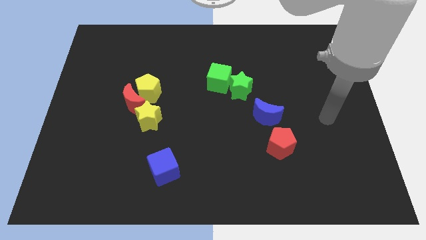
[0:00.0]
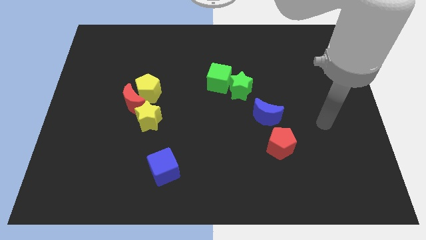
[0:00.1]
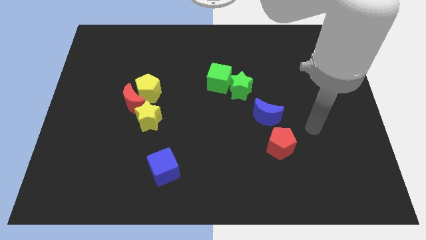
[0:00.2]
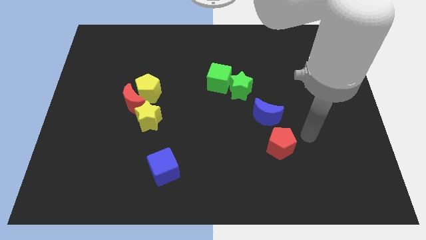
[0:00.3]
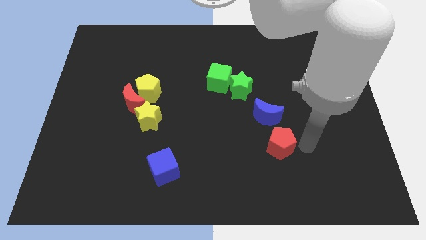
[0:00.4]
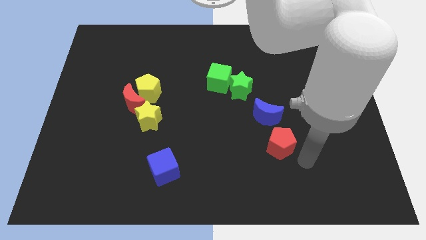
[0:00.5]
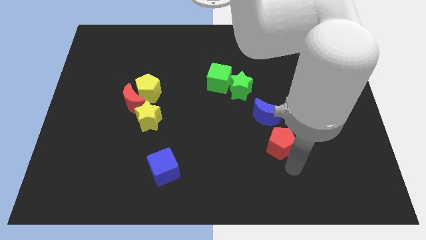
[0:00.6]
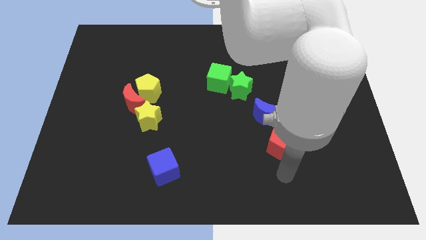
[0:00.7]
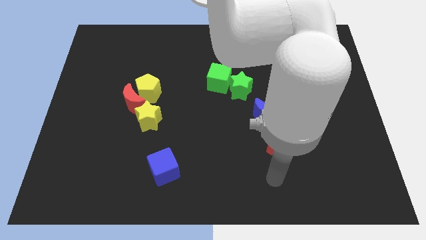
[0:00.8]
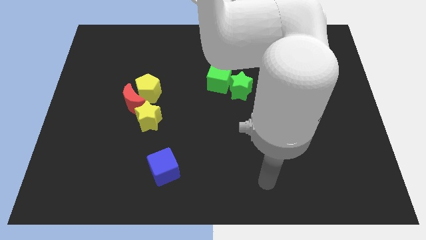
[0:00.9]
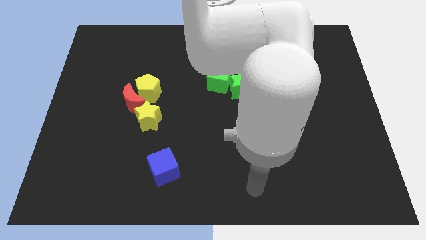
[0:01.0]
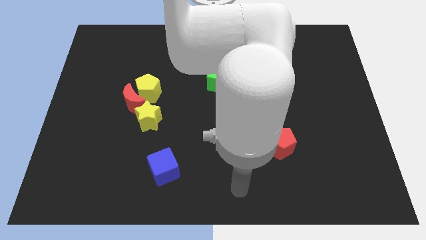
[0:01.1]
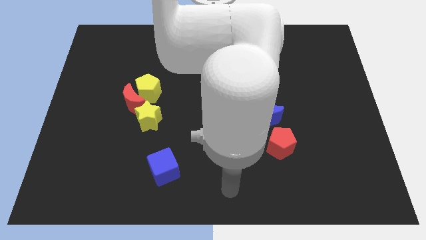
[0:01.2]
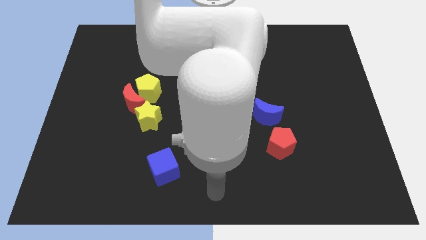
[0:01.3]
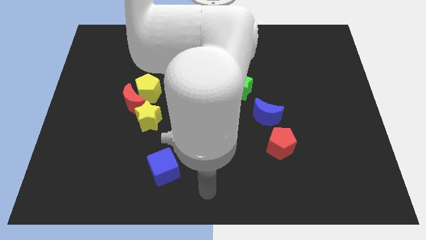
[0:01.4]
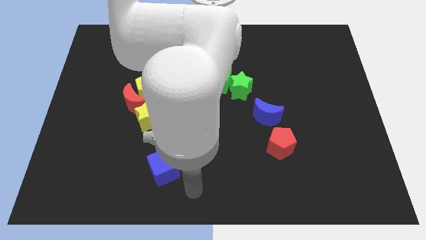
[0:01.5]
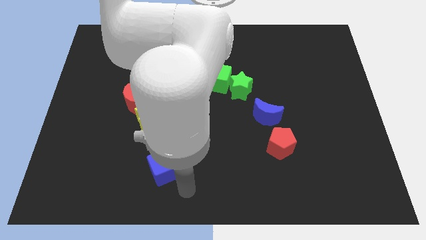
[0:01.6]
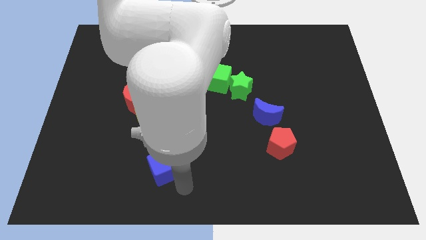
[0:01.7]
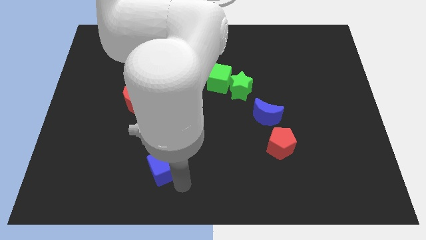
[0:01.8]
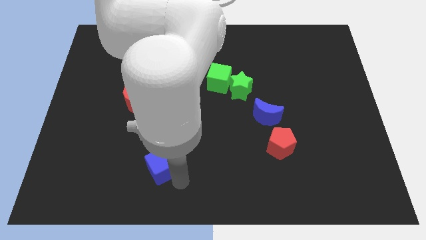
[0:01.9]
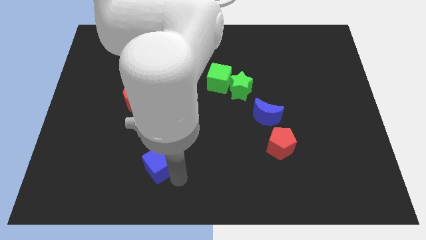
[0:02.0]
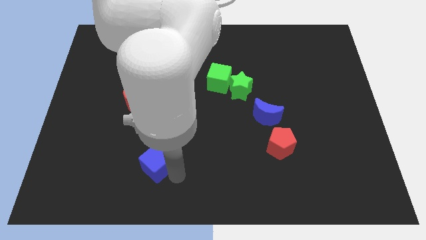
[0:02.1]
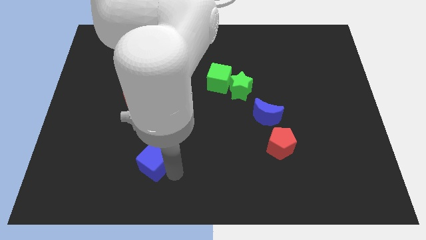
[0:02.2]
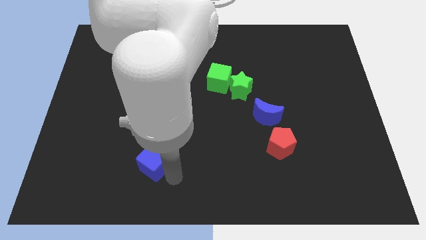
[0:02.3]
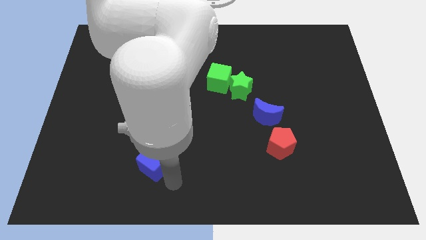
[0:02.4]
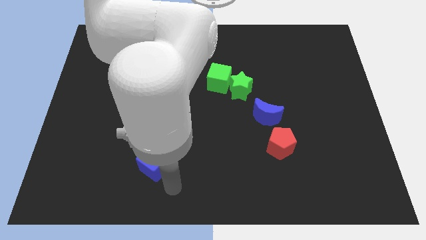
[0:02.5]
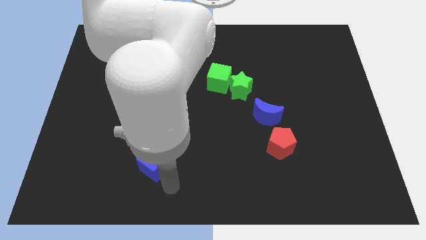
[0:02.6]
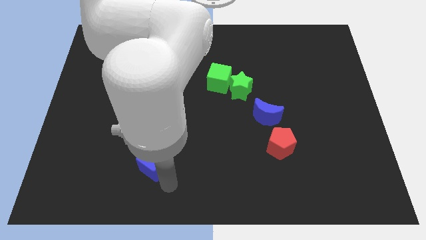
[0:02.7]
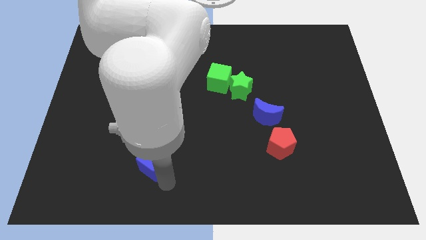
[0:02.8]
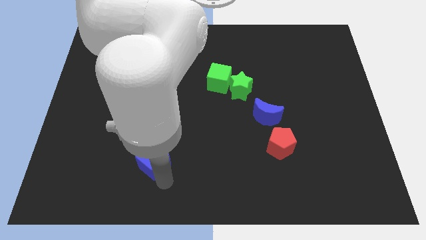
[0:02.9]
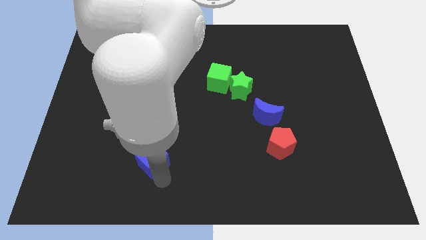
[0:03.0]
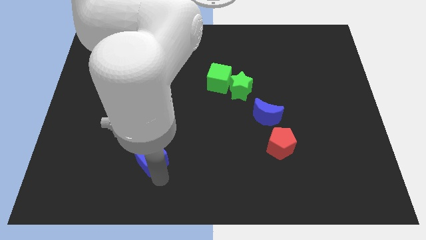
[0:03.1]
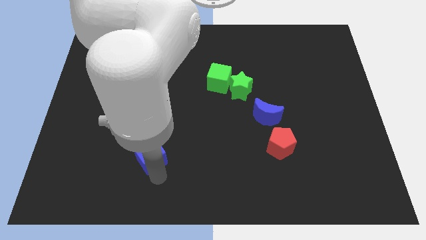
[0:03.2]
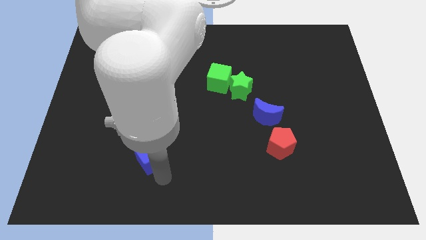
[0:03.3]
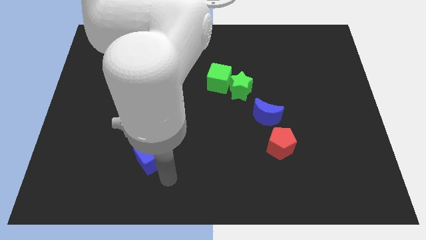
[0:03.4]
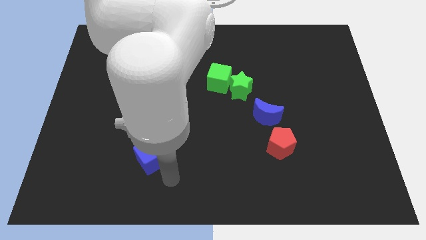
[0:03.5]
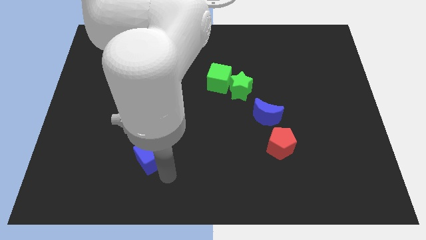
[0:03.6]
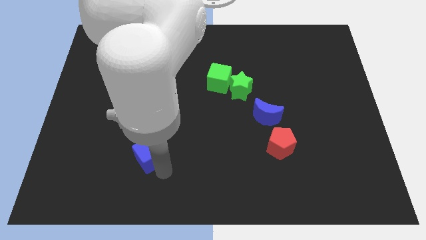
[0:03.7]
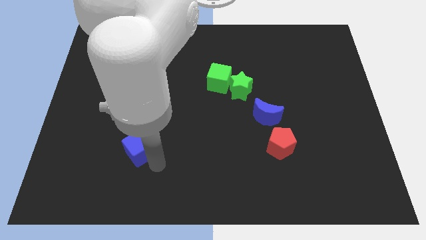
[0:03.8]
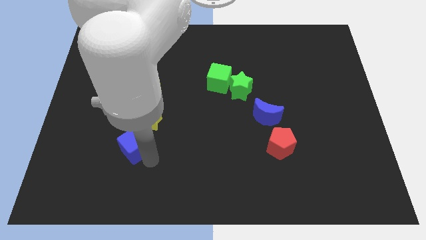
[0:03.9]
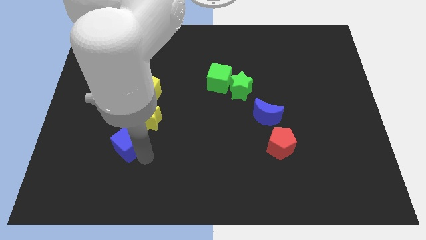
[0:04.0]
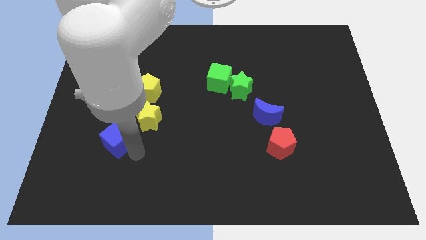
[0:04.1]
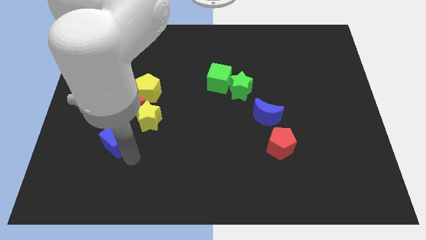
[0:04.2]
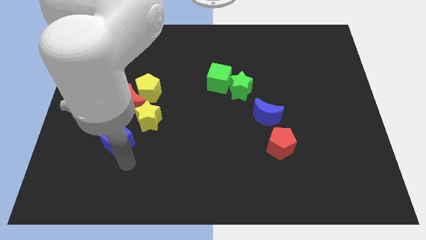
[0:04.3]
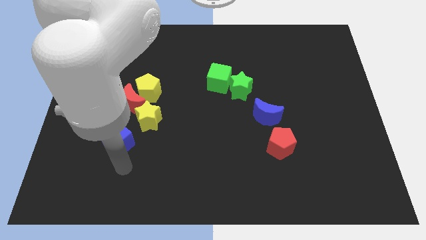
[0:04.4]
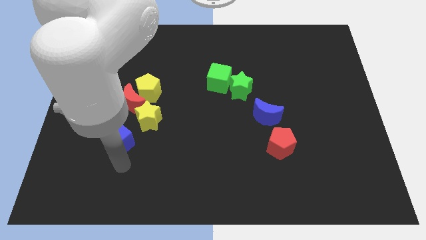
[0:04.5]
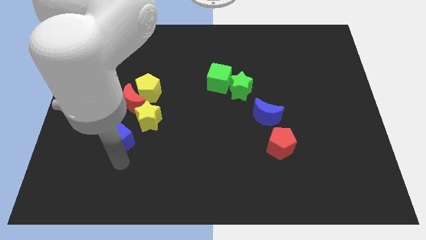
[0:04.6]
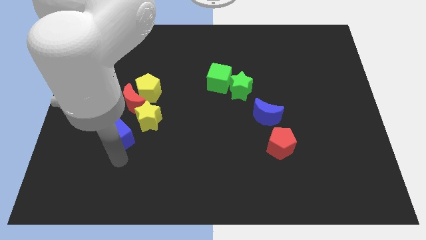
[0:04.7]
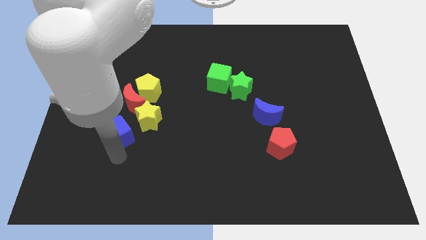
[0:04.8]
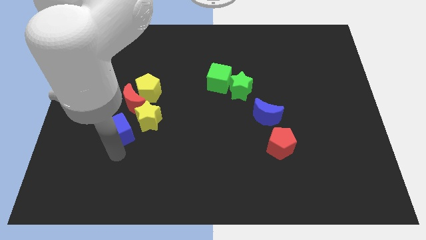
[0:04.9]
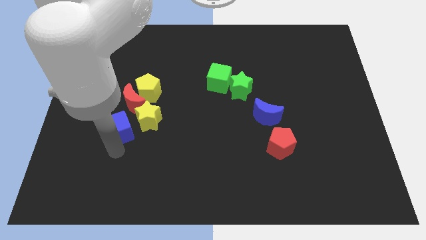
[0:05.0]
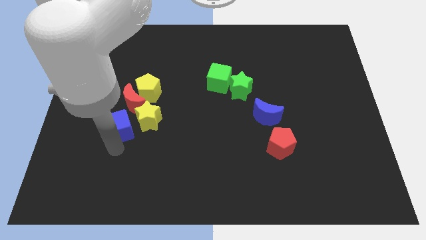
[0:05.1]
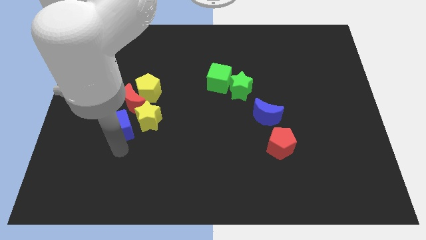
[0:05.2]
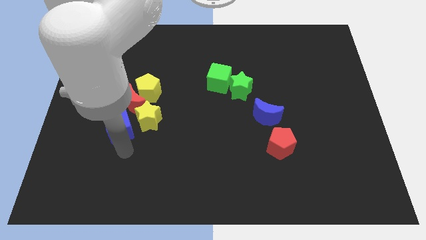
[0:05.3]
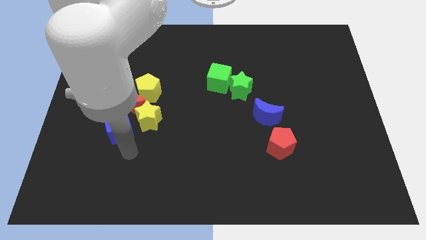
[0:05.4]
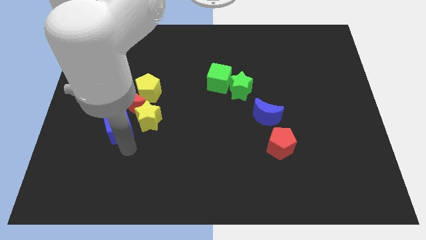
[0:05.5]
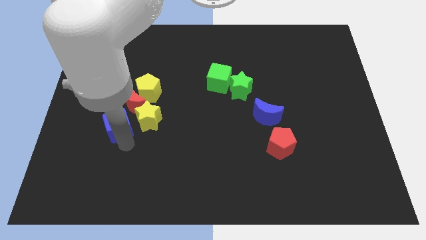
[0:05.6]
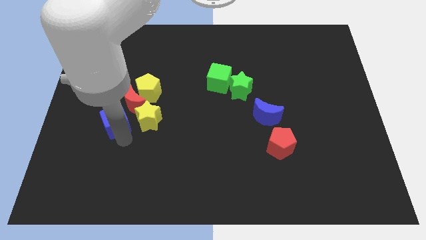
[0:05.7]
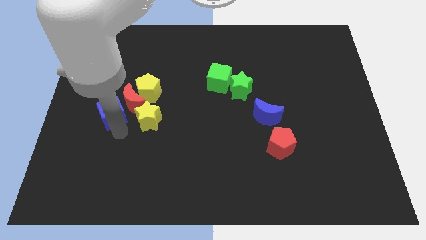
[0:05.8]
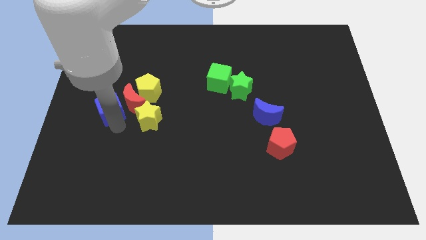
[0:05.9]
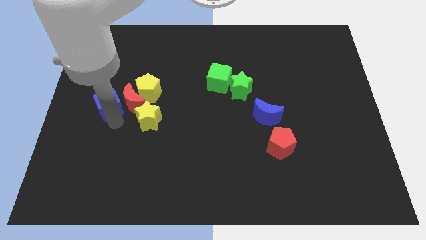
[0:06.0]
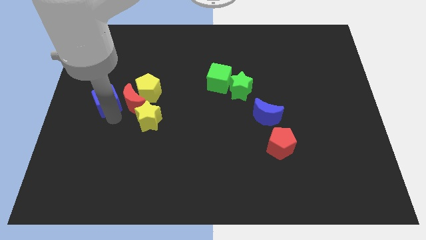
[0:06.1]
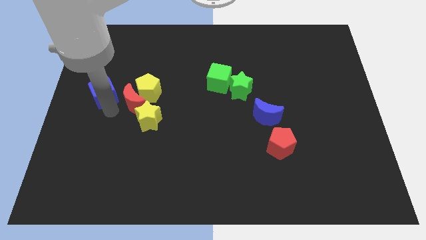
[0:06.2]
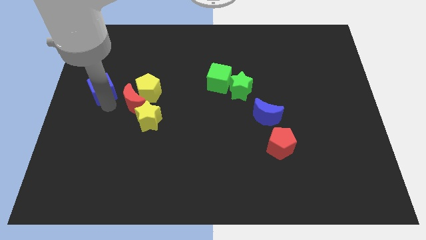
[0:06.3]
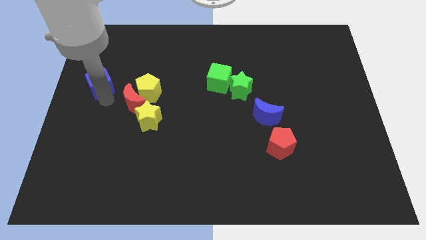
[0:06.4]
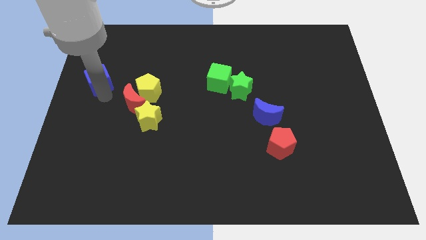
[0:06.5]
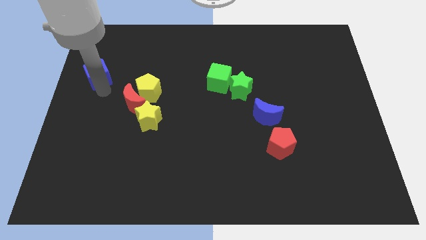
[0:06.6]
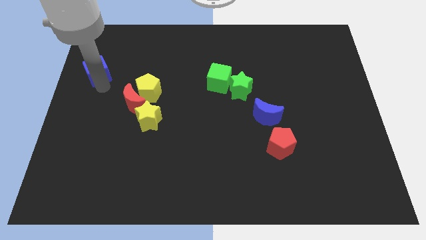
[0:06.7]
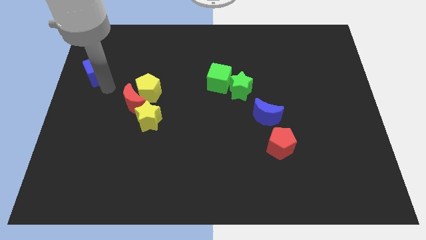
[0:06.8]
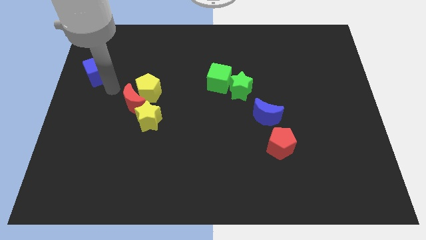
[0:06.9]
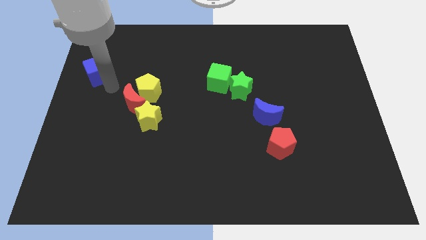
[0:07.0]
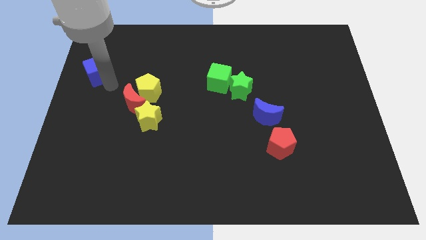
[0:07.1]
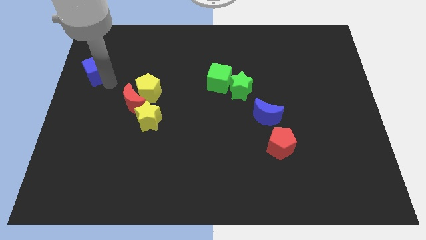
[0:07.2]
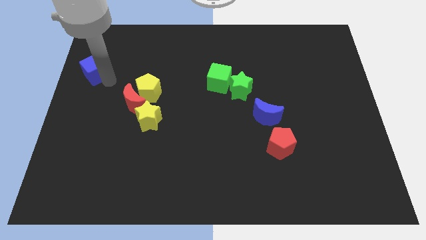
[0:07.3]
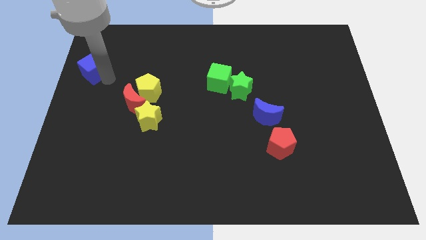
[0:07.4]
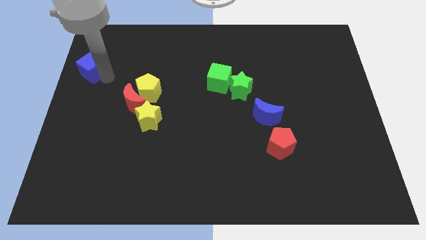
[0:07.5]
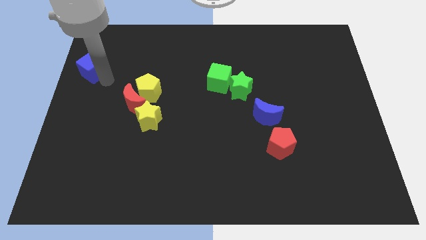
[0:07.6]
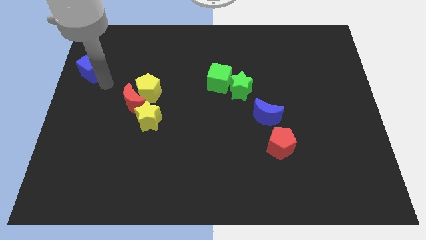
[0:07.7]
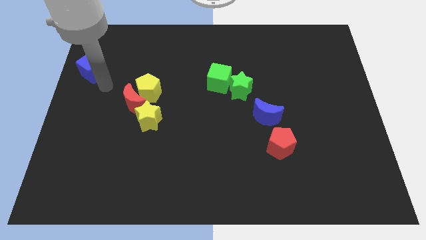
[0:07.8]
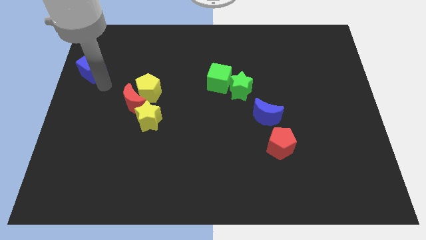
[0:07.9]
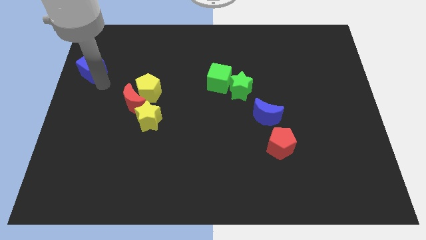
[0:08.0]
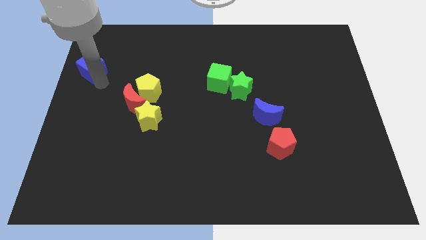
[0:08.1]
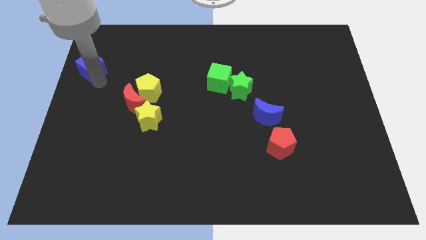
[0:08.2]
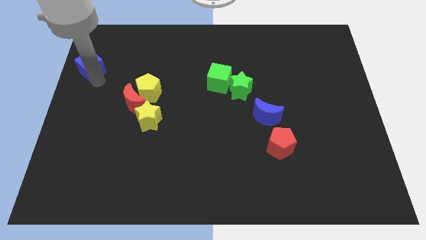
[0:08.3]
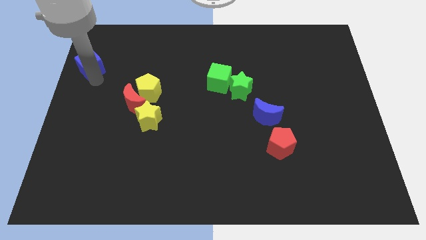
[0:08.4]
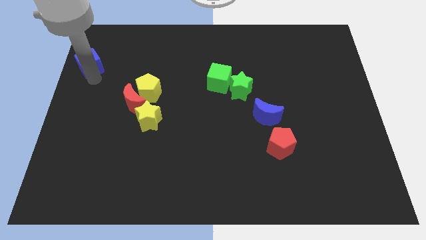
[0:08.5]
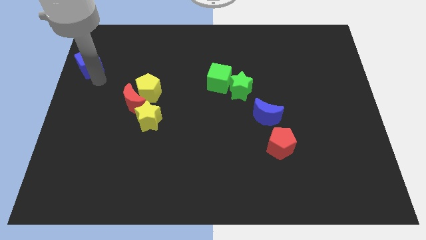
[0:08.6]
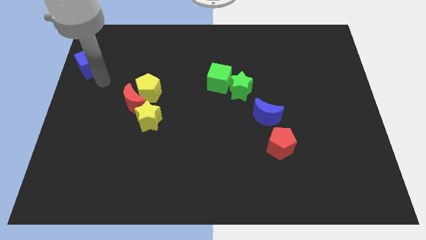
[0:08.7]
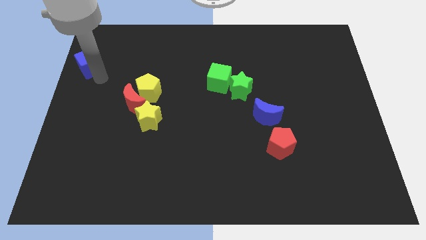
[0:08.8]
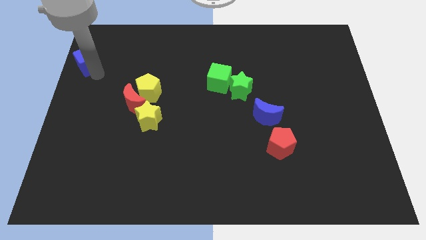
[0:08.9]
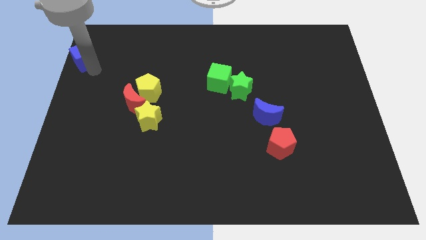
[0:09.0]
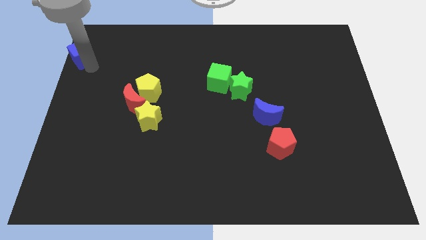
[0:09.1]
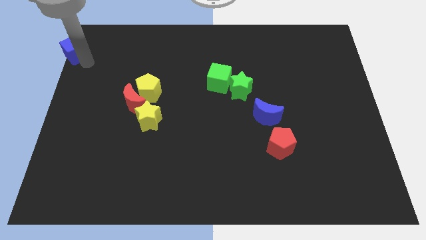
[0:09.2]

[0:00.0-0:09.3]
slide the blue cube to the upper left corner
